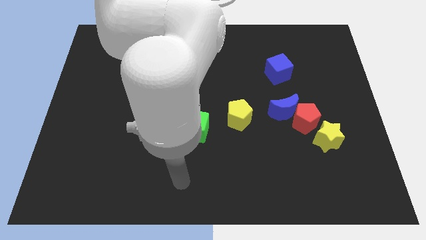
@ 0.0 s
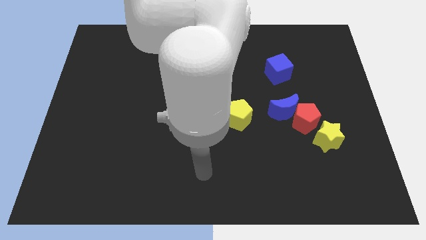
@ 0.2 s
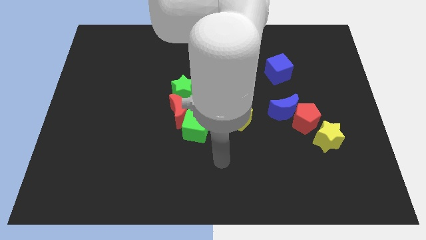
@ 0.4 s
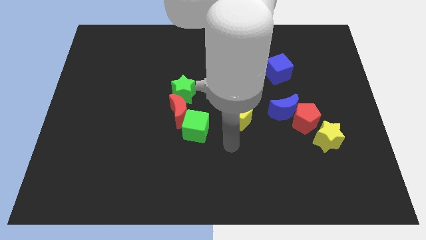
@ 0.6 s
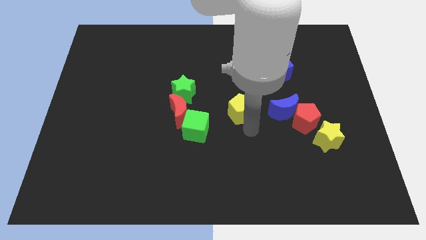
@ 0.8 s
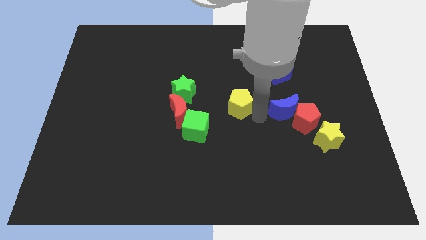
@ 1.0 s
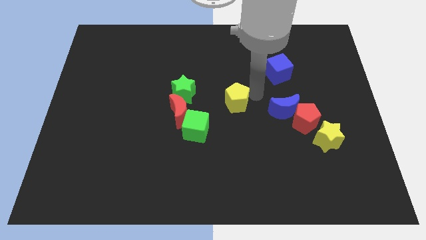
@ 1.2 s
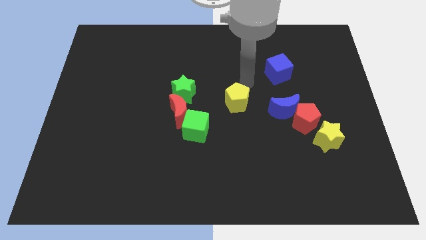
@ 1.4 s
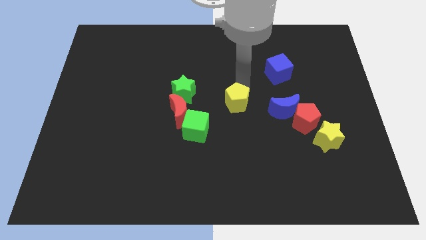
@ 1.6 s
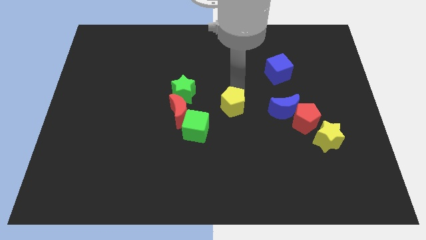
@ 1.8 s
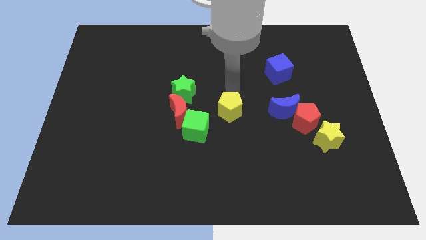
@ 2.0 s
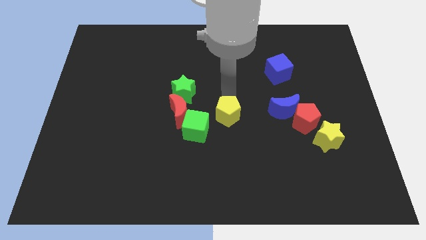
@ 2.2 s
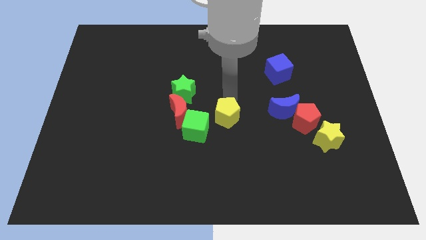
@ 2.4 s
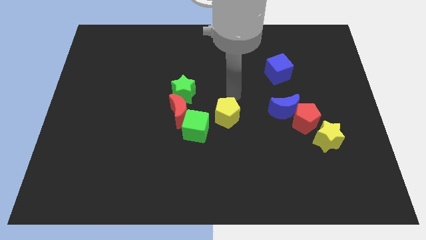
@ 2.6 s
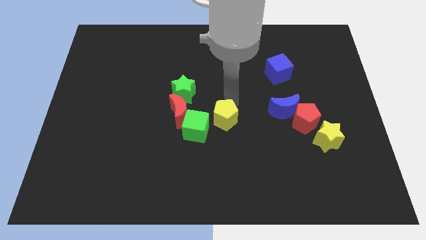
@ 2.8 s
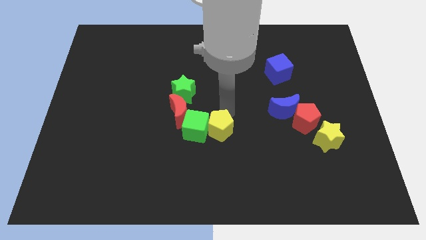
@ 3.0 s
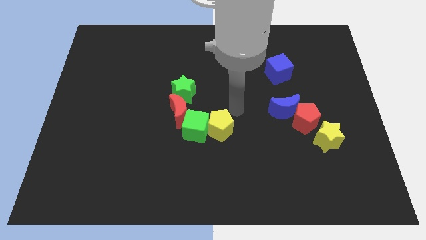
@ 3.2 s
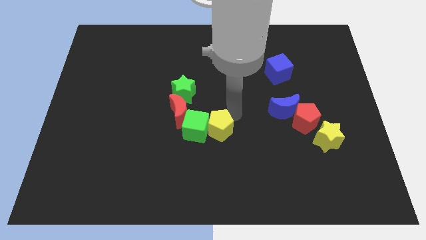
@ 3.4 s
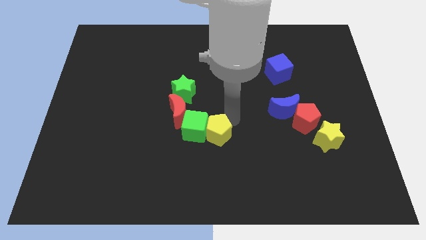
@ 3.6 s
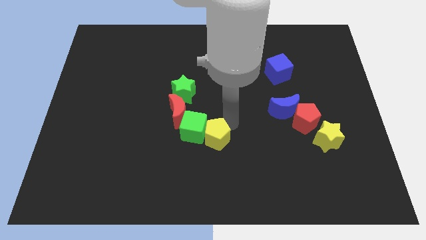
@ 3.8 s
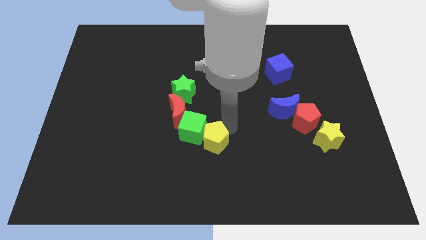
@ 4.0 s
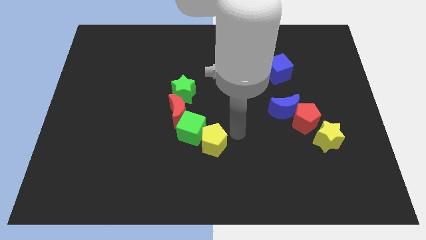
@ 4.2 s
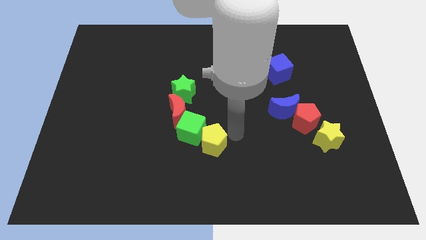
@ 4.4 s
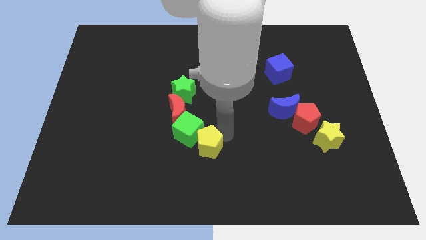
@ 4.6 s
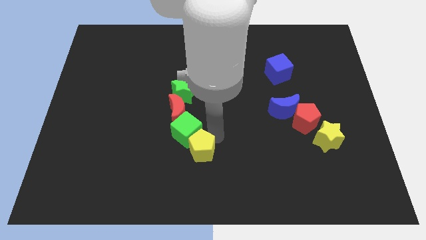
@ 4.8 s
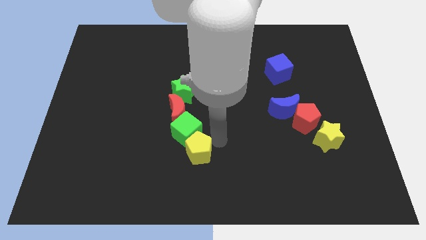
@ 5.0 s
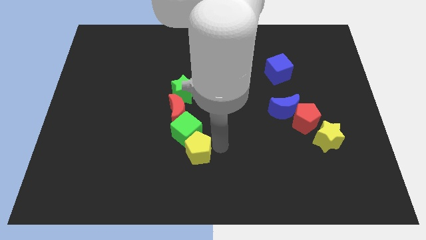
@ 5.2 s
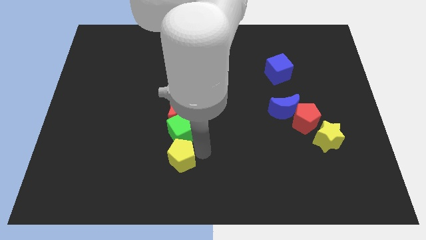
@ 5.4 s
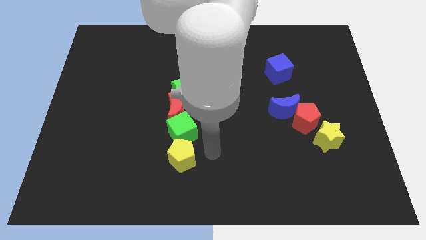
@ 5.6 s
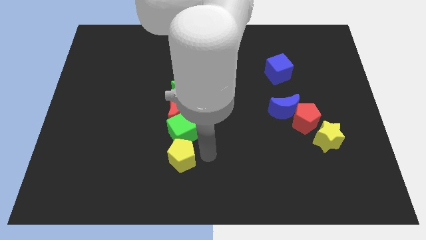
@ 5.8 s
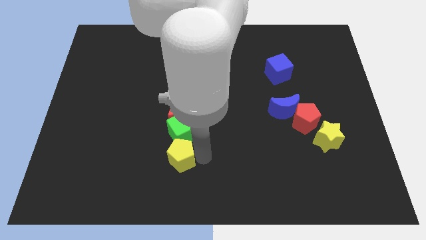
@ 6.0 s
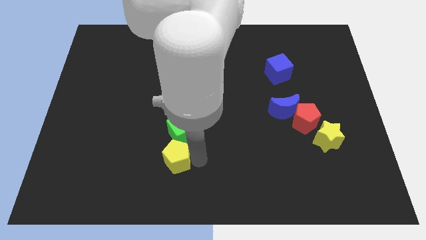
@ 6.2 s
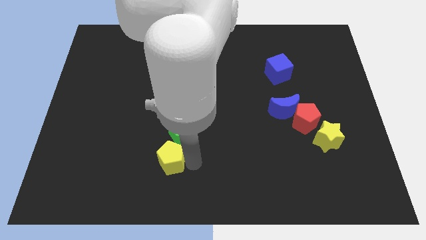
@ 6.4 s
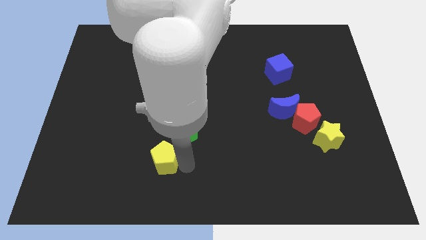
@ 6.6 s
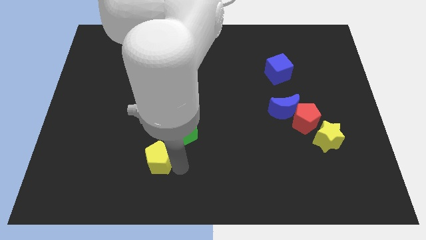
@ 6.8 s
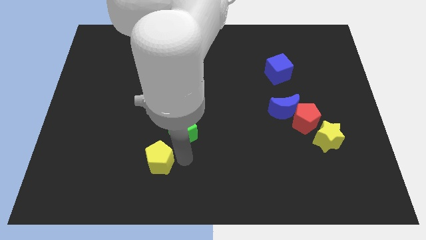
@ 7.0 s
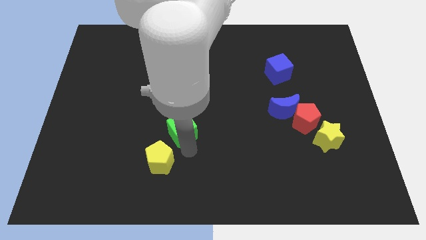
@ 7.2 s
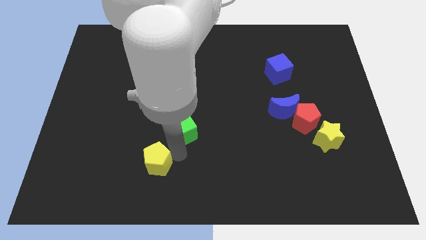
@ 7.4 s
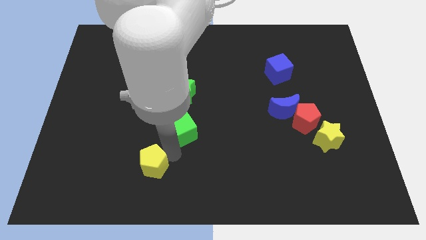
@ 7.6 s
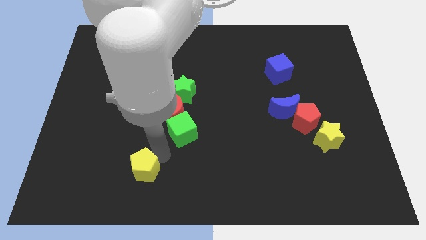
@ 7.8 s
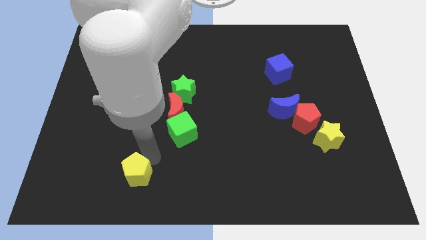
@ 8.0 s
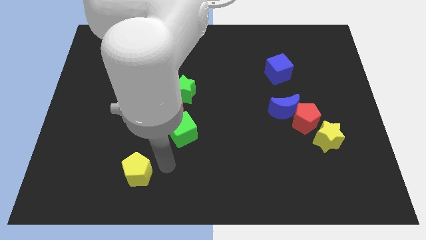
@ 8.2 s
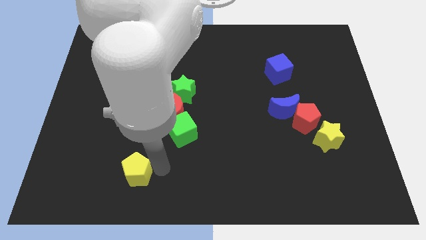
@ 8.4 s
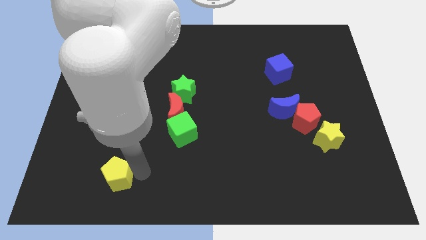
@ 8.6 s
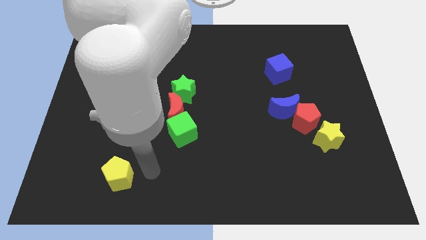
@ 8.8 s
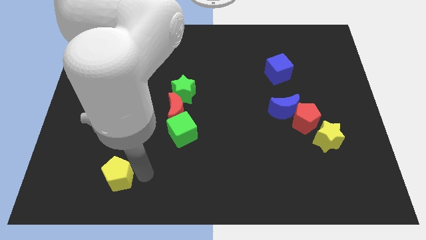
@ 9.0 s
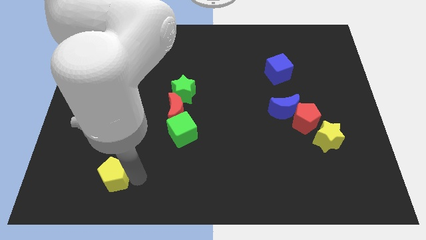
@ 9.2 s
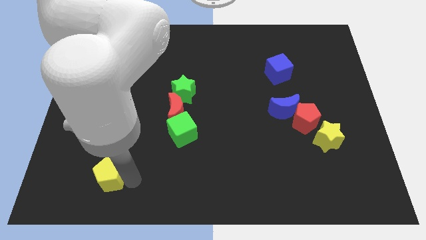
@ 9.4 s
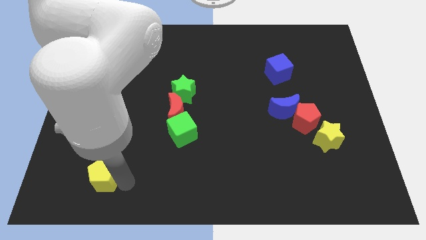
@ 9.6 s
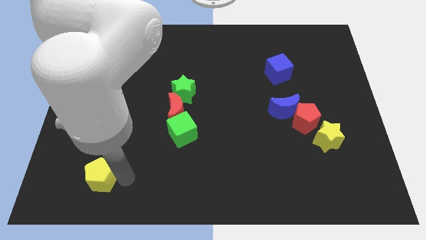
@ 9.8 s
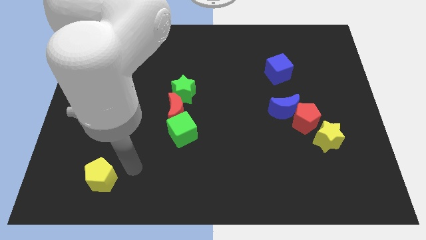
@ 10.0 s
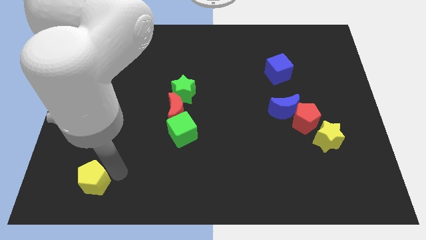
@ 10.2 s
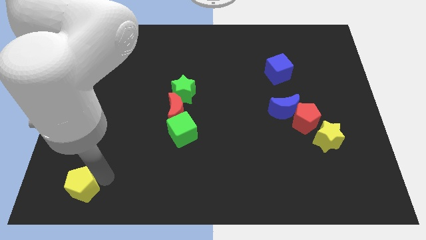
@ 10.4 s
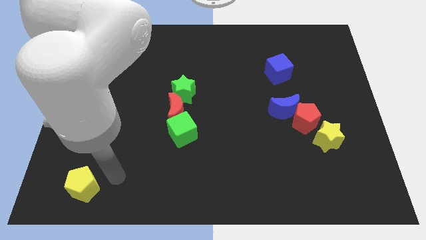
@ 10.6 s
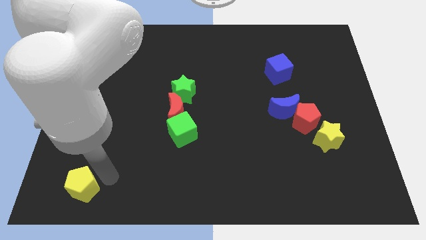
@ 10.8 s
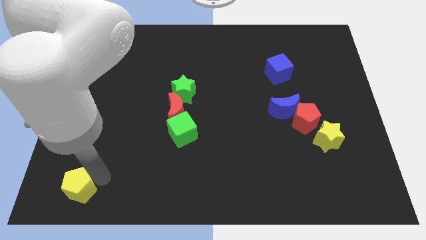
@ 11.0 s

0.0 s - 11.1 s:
put the yellow pentagon to the lower left corner
